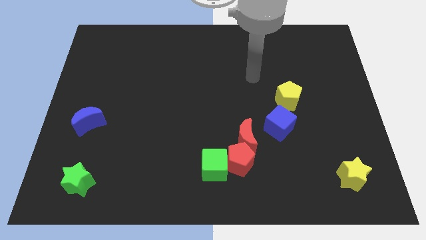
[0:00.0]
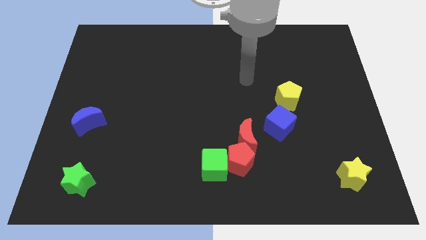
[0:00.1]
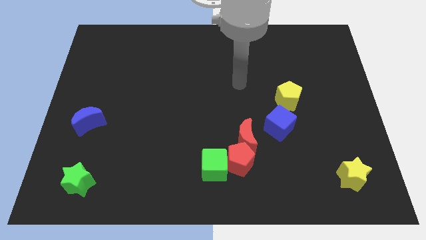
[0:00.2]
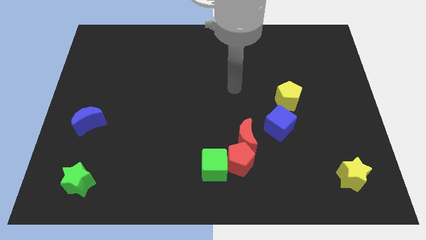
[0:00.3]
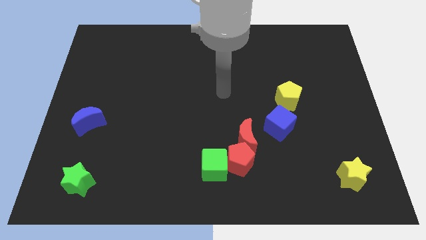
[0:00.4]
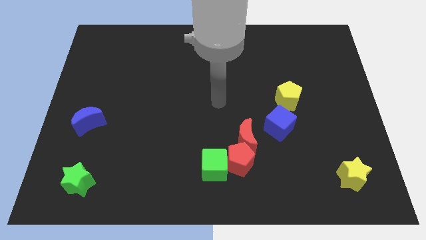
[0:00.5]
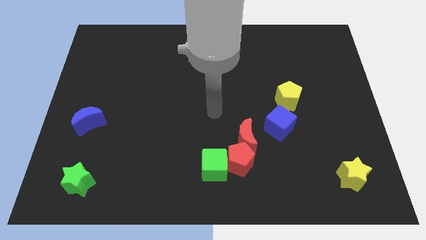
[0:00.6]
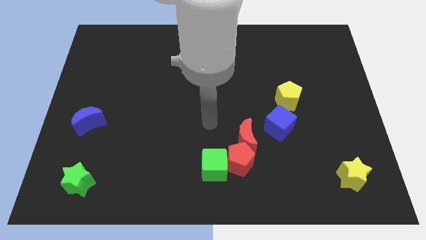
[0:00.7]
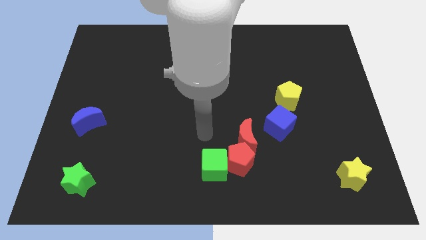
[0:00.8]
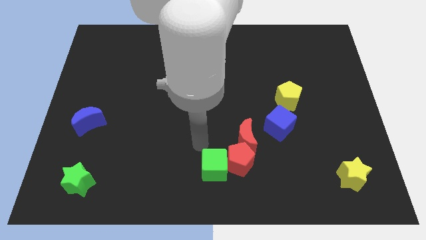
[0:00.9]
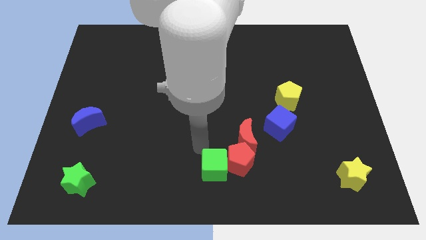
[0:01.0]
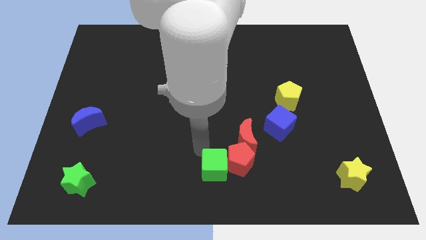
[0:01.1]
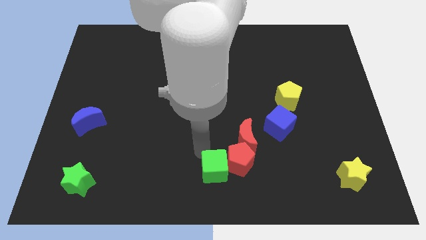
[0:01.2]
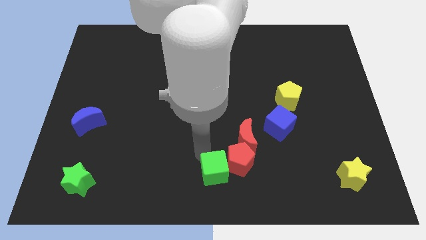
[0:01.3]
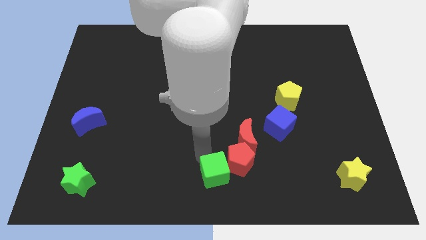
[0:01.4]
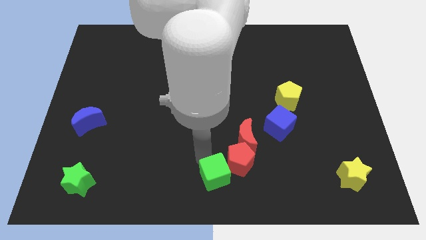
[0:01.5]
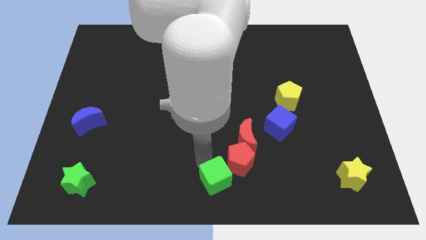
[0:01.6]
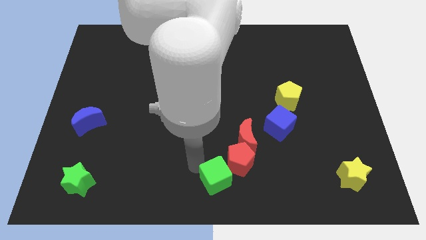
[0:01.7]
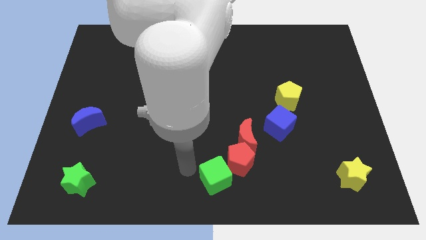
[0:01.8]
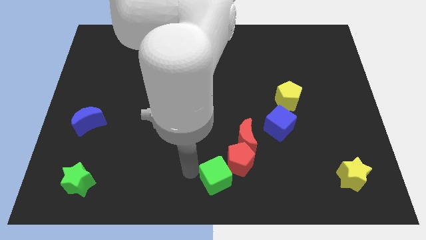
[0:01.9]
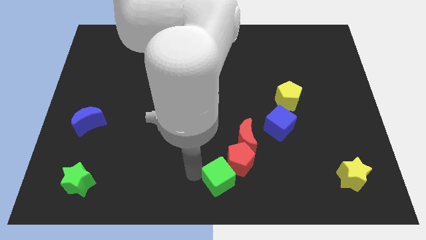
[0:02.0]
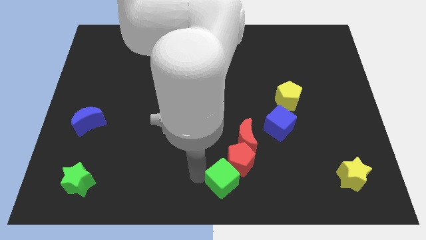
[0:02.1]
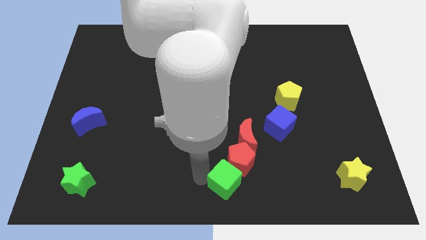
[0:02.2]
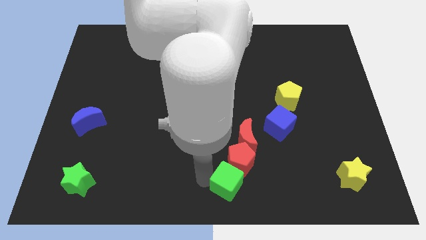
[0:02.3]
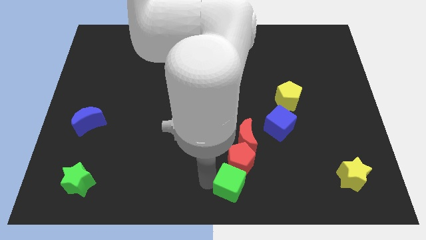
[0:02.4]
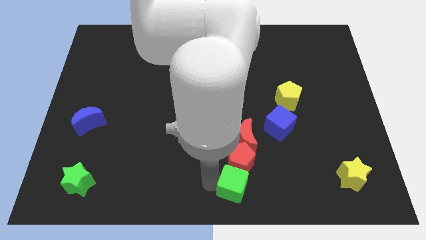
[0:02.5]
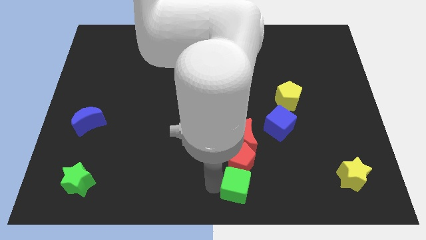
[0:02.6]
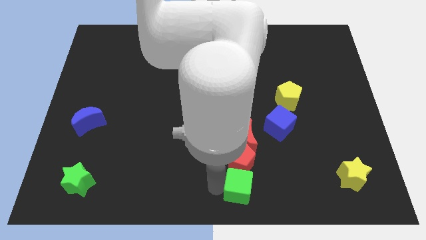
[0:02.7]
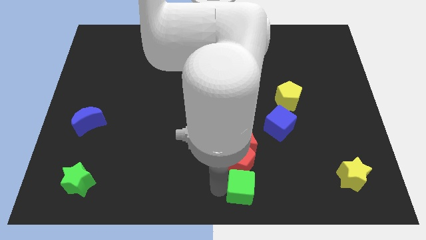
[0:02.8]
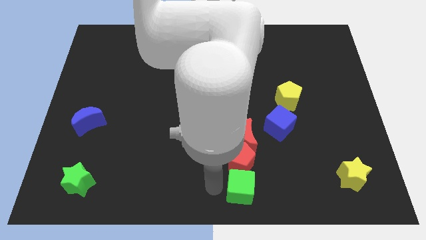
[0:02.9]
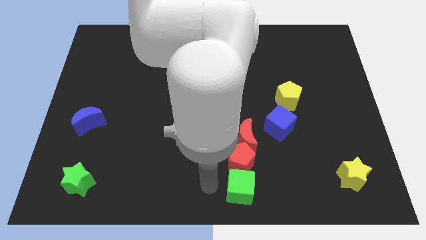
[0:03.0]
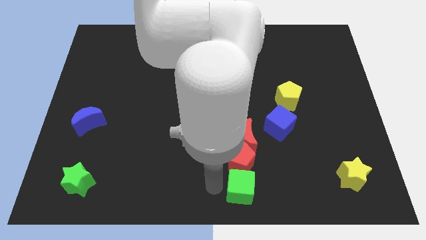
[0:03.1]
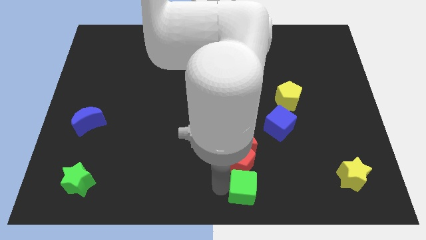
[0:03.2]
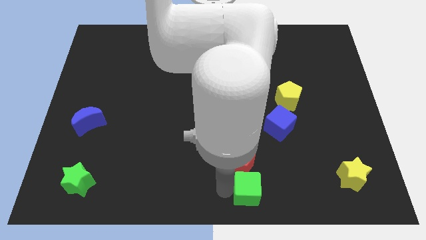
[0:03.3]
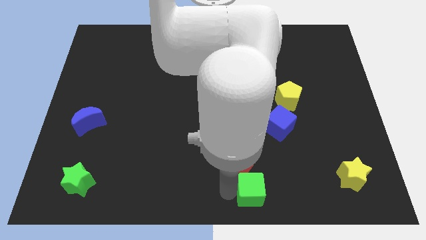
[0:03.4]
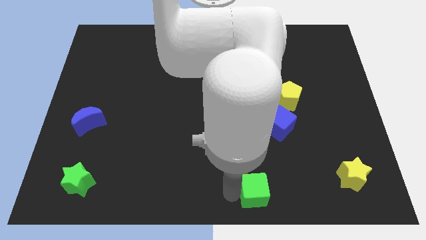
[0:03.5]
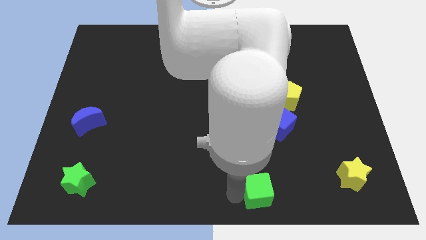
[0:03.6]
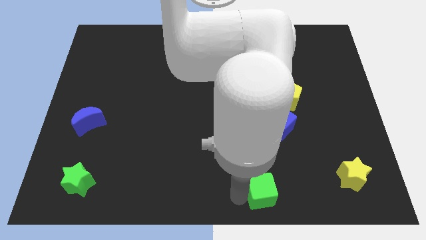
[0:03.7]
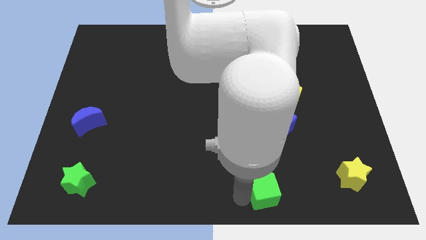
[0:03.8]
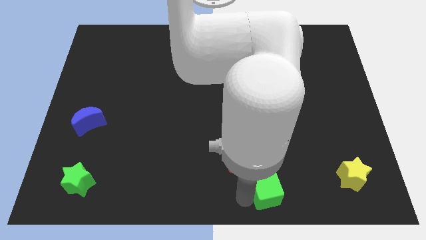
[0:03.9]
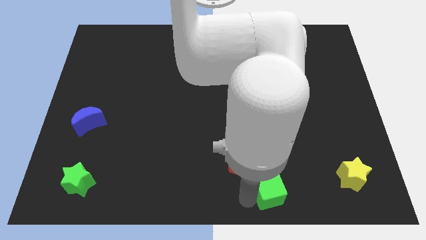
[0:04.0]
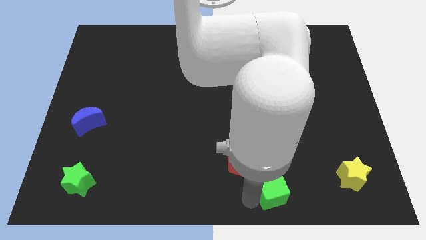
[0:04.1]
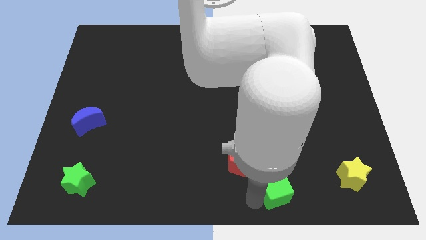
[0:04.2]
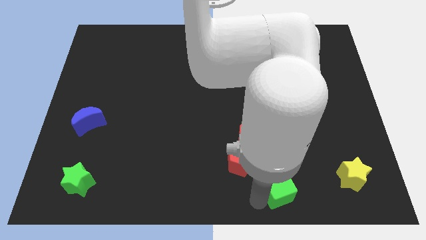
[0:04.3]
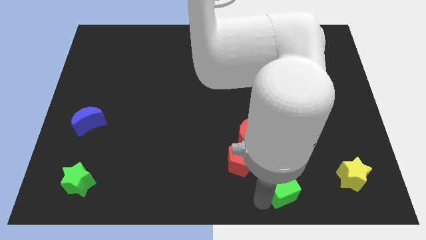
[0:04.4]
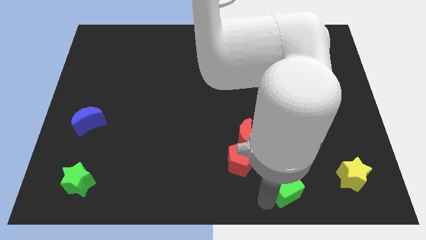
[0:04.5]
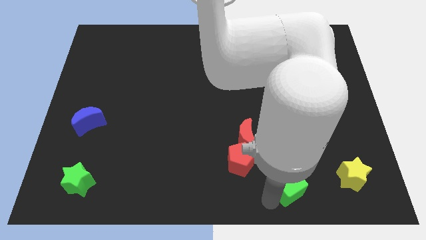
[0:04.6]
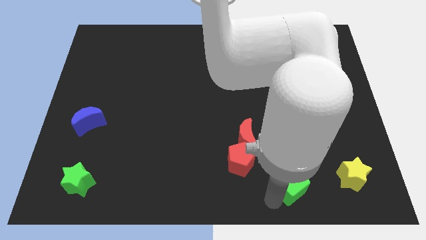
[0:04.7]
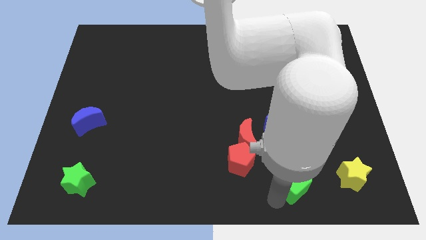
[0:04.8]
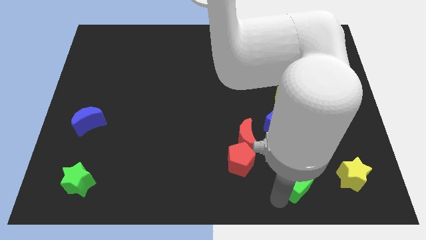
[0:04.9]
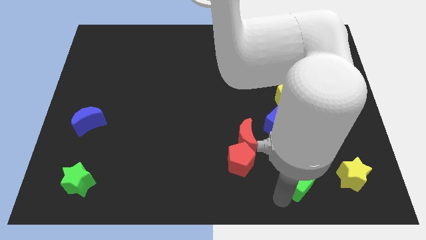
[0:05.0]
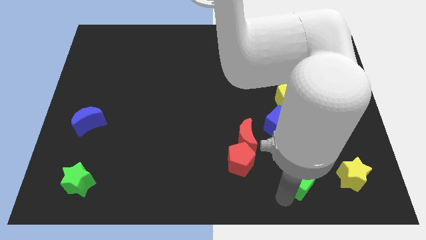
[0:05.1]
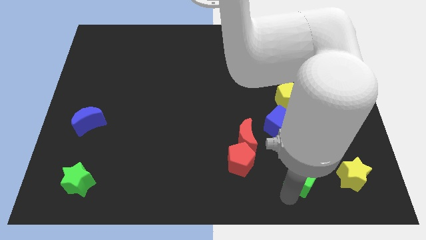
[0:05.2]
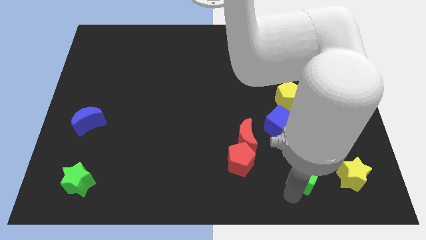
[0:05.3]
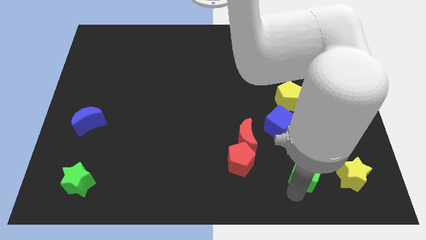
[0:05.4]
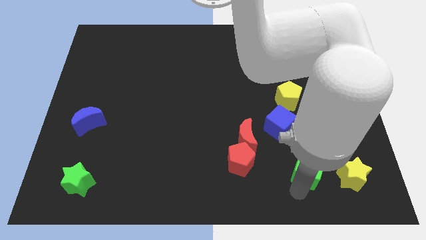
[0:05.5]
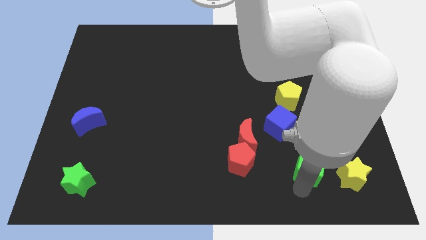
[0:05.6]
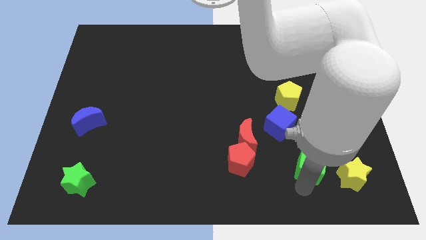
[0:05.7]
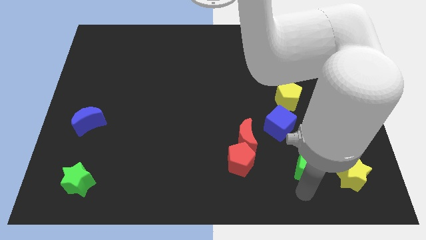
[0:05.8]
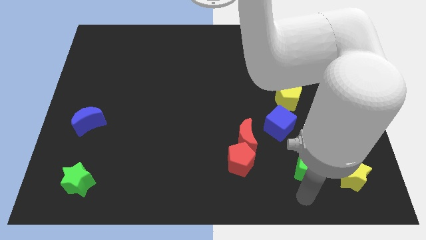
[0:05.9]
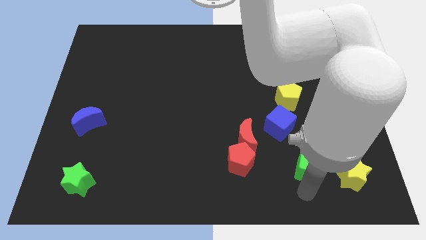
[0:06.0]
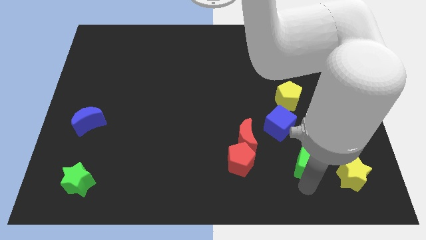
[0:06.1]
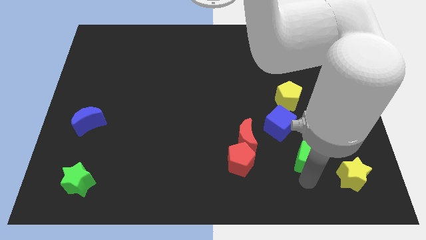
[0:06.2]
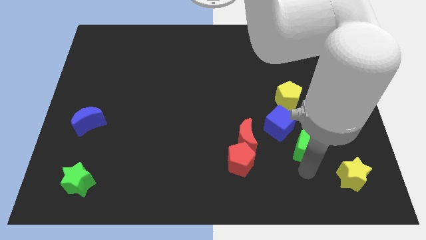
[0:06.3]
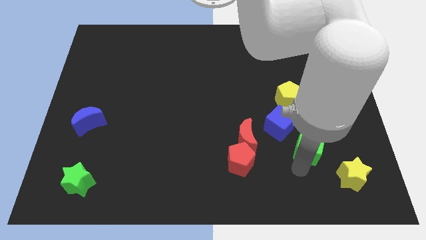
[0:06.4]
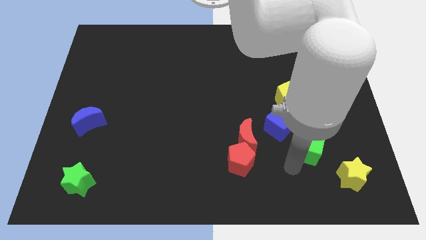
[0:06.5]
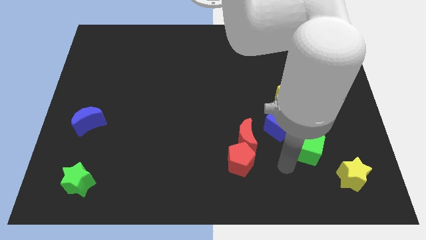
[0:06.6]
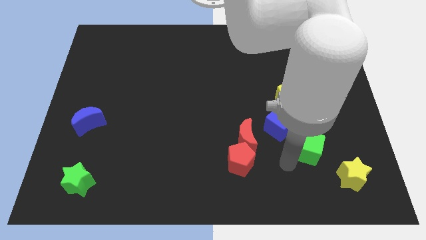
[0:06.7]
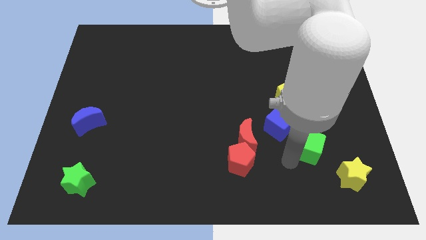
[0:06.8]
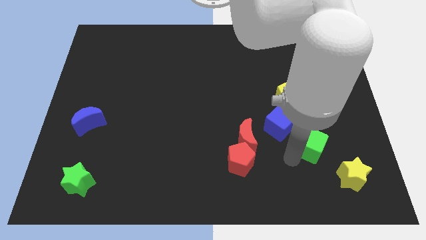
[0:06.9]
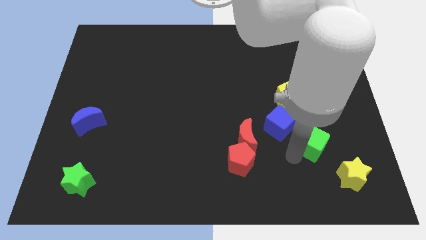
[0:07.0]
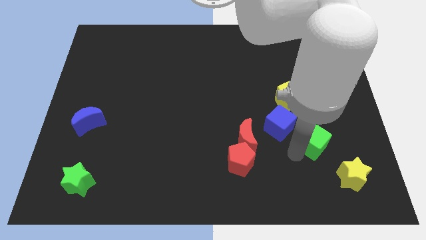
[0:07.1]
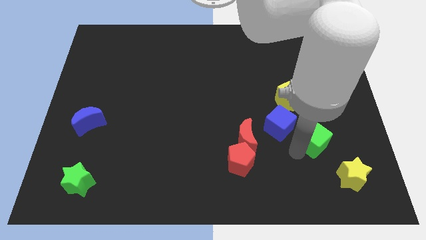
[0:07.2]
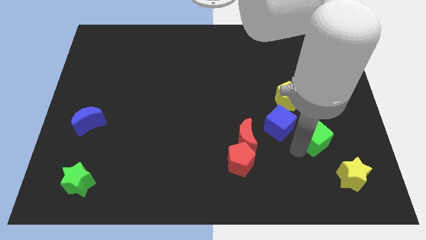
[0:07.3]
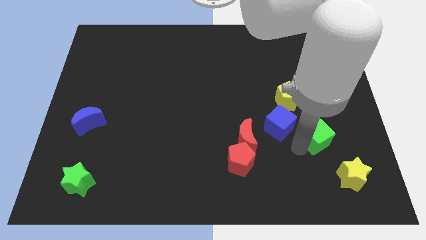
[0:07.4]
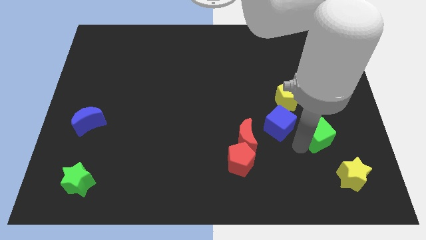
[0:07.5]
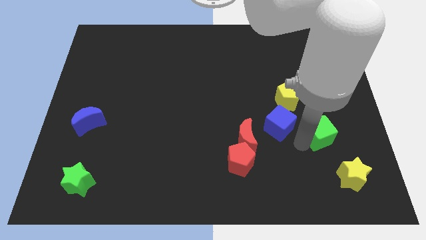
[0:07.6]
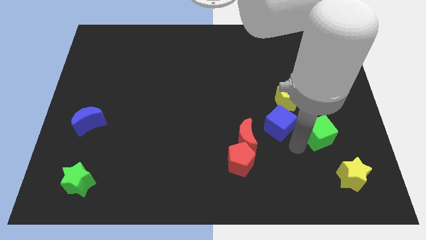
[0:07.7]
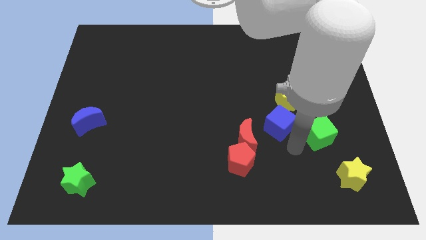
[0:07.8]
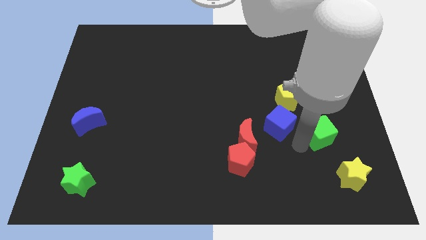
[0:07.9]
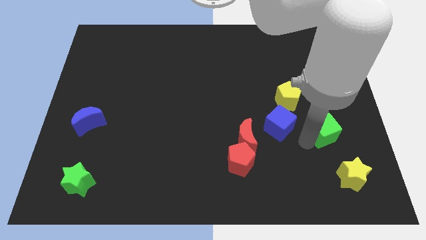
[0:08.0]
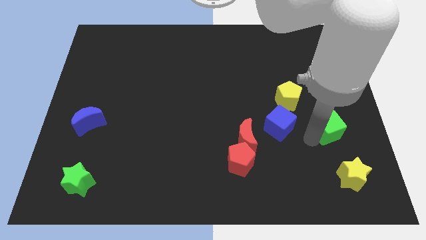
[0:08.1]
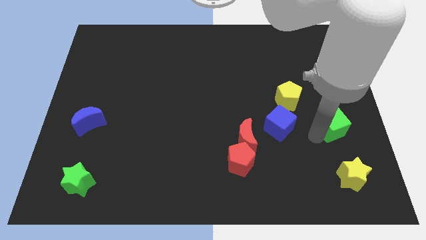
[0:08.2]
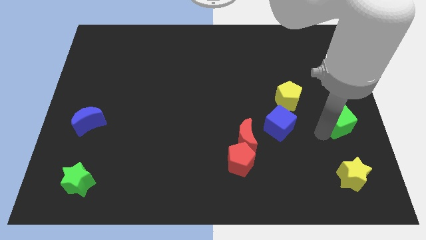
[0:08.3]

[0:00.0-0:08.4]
move the green cube to the center right
